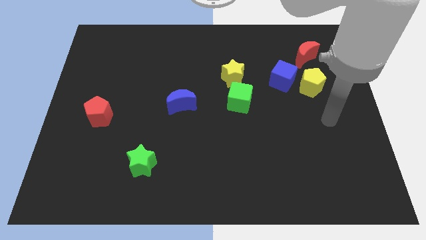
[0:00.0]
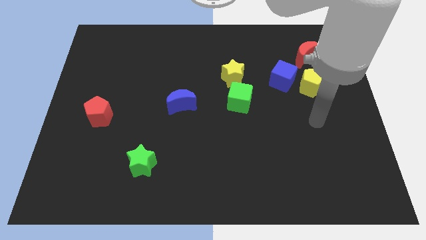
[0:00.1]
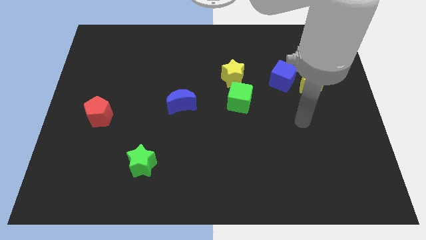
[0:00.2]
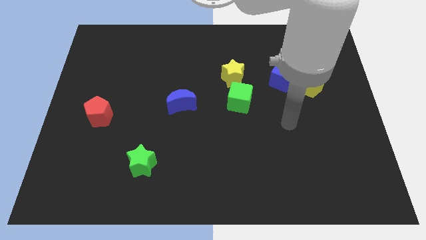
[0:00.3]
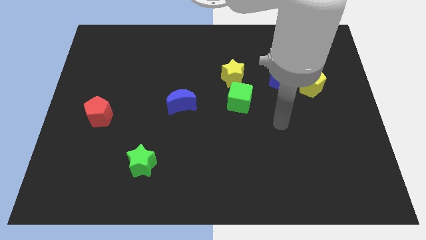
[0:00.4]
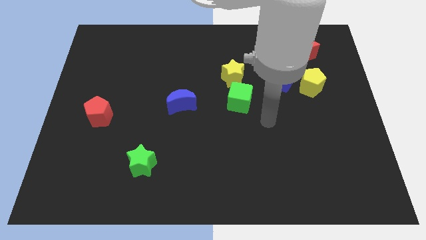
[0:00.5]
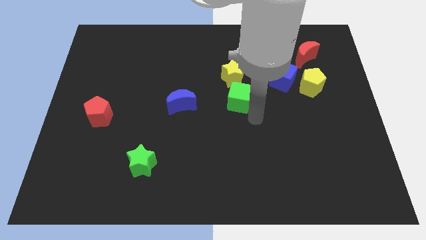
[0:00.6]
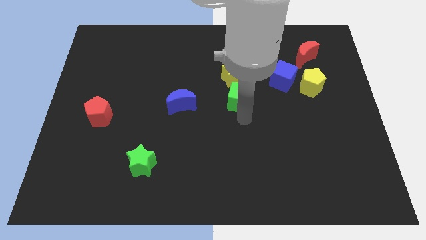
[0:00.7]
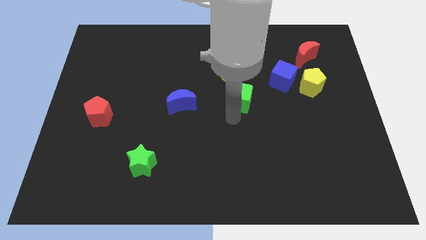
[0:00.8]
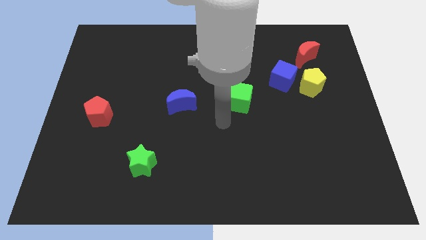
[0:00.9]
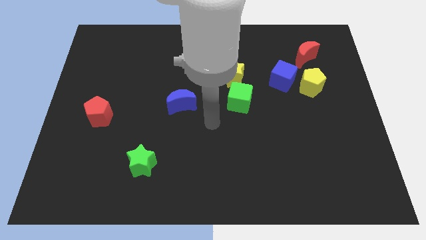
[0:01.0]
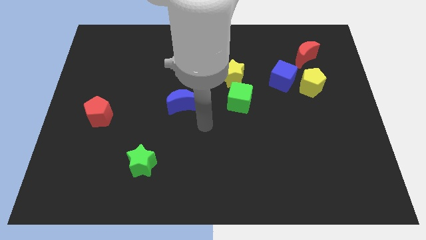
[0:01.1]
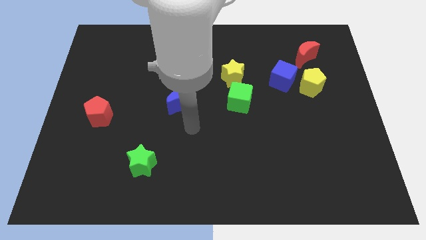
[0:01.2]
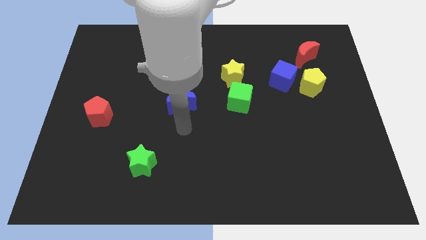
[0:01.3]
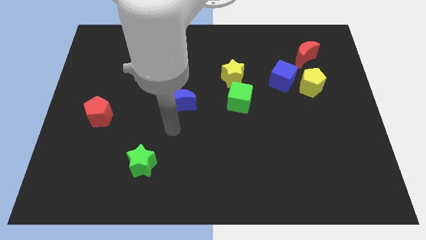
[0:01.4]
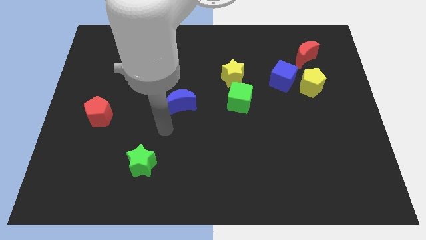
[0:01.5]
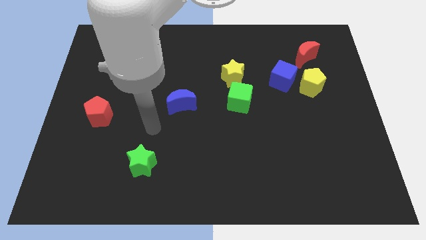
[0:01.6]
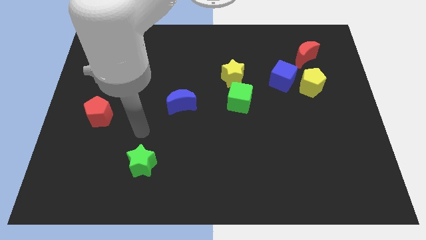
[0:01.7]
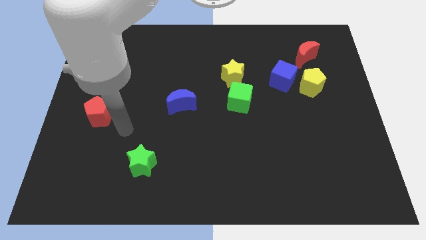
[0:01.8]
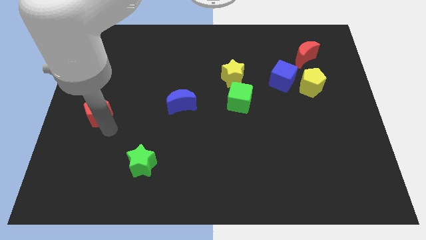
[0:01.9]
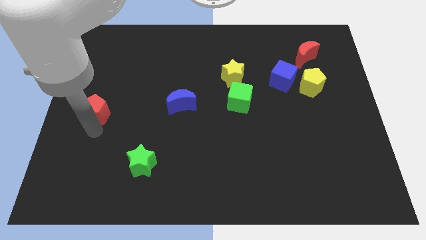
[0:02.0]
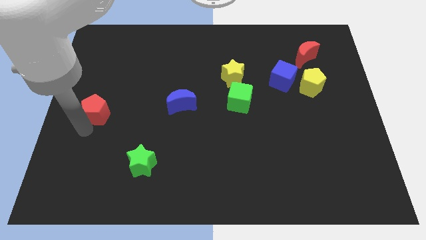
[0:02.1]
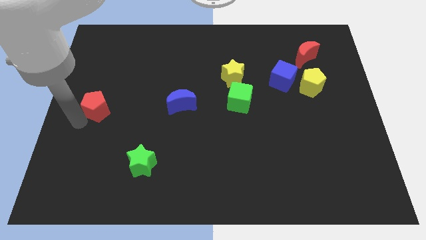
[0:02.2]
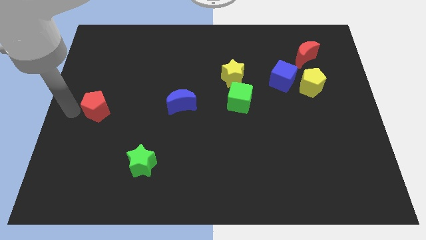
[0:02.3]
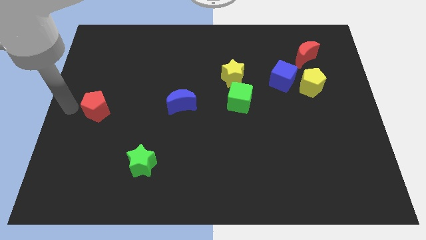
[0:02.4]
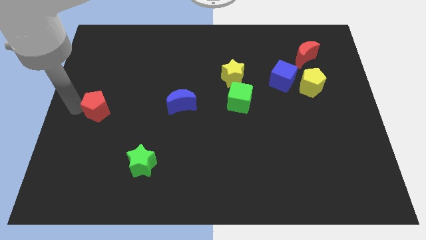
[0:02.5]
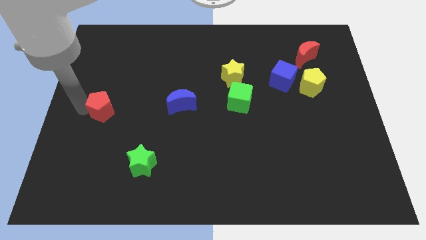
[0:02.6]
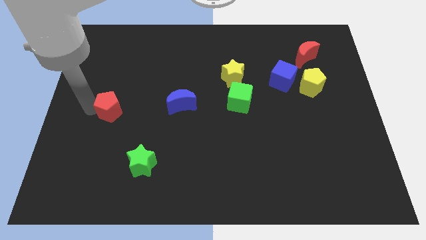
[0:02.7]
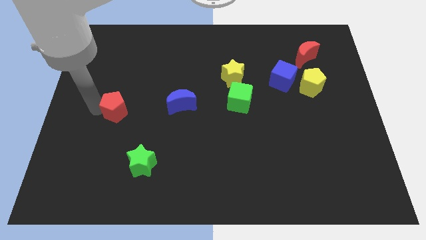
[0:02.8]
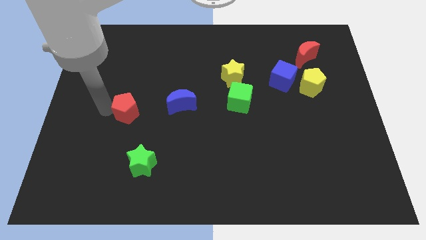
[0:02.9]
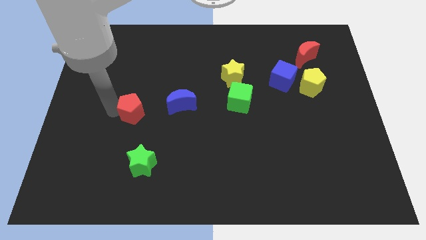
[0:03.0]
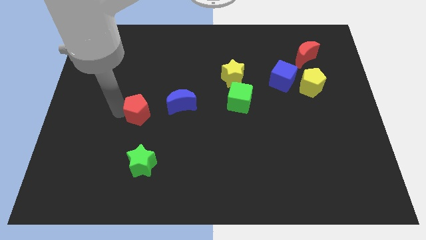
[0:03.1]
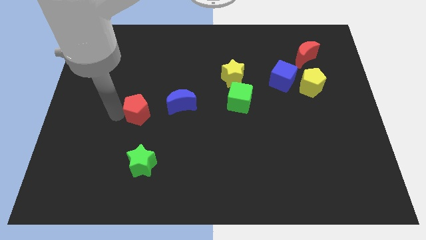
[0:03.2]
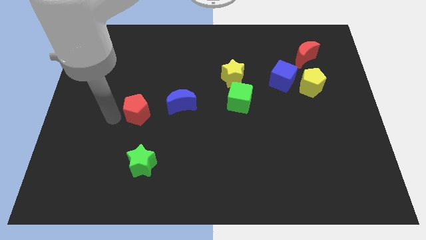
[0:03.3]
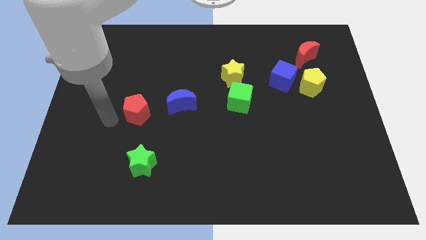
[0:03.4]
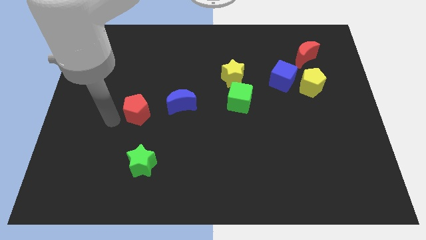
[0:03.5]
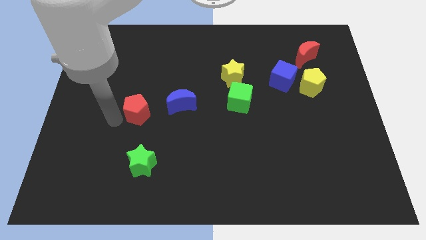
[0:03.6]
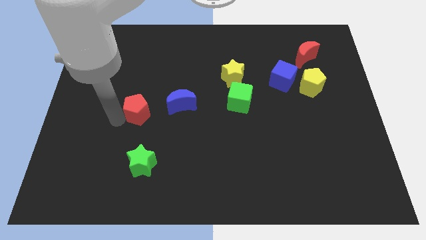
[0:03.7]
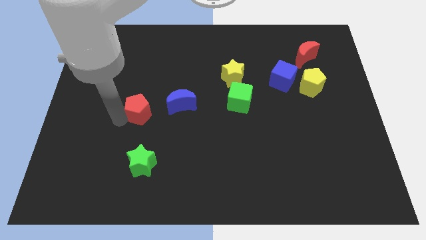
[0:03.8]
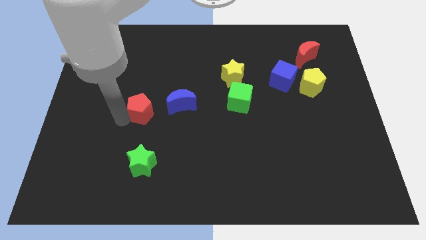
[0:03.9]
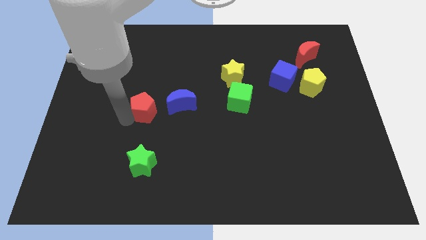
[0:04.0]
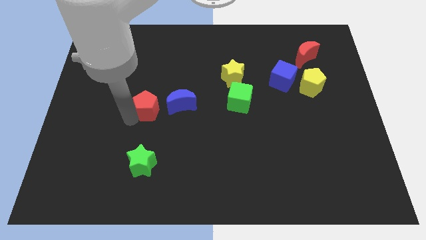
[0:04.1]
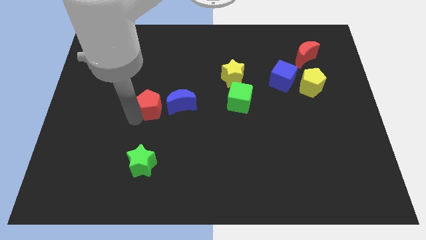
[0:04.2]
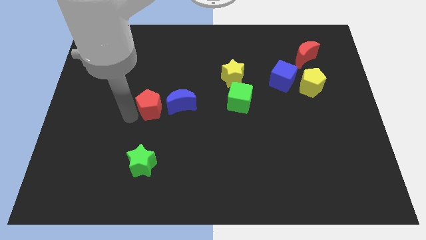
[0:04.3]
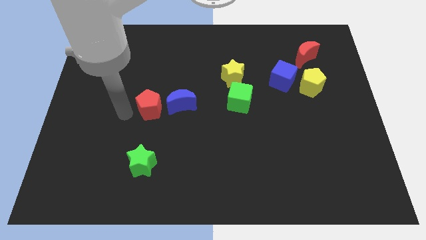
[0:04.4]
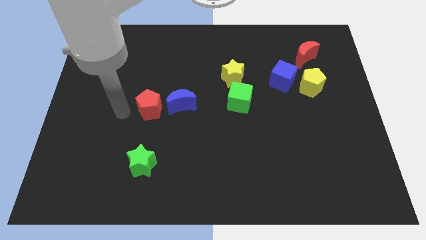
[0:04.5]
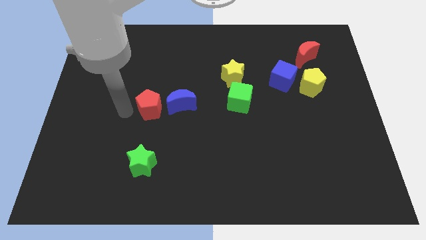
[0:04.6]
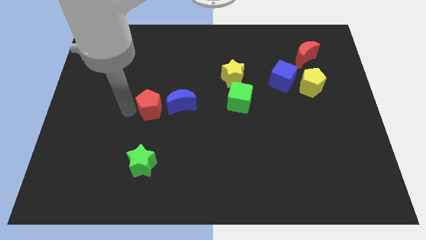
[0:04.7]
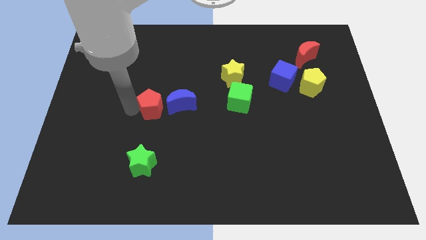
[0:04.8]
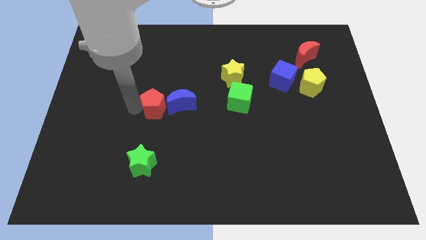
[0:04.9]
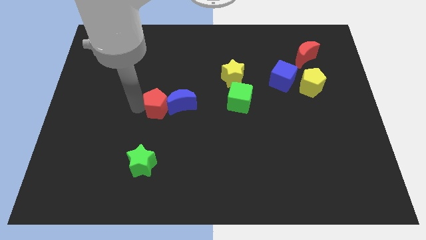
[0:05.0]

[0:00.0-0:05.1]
slide the red pentagon to the blue moon

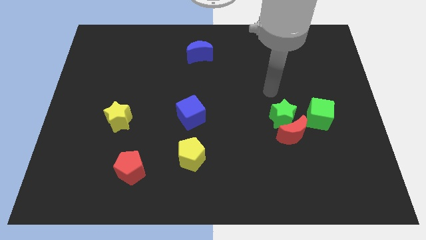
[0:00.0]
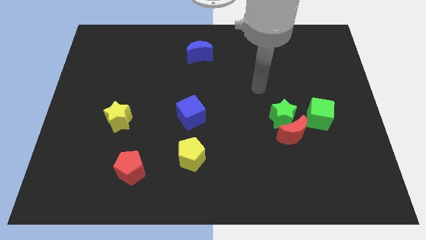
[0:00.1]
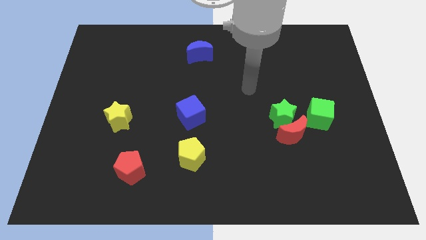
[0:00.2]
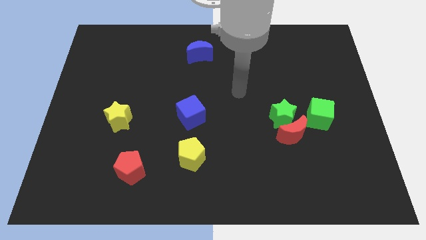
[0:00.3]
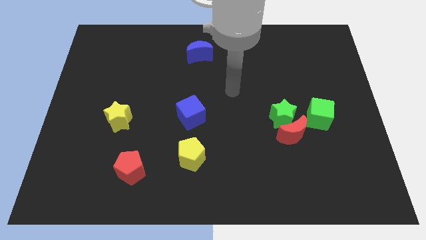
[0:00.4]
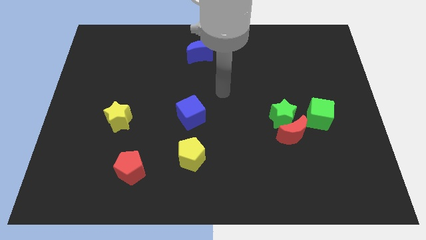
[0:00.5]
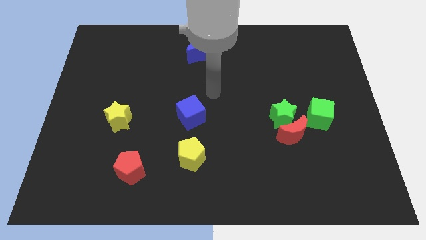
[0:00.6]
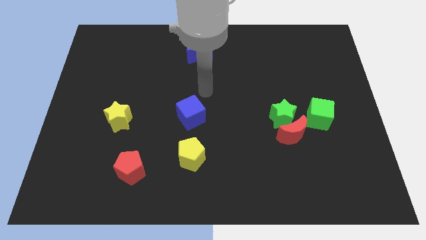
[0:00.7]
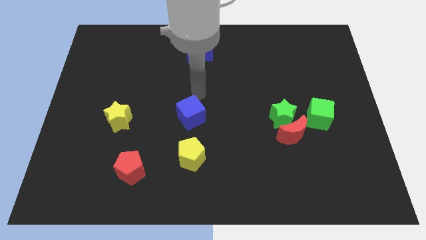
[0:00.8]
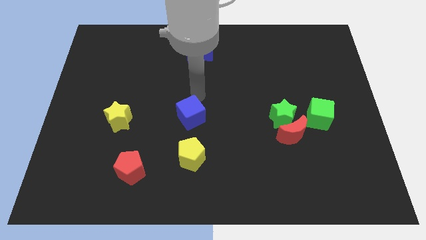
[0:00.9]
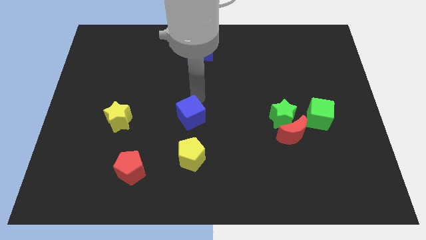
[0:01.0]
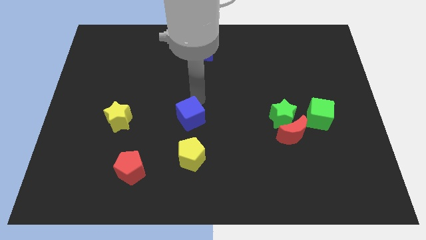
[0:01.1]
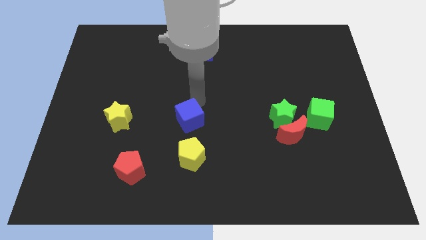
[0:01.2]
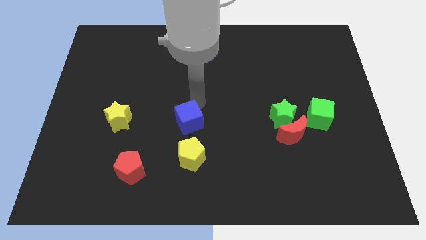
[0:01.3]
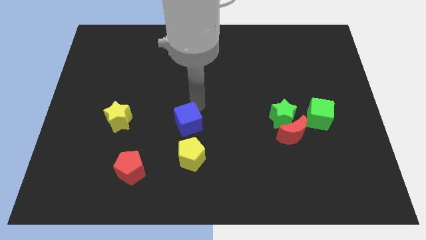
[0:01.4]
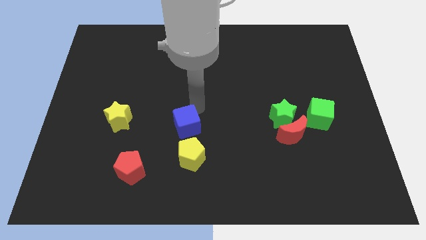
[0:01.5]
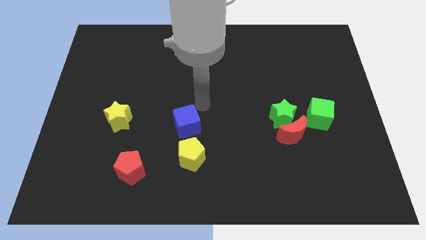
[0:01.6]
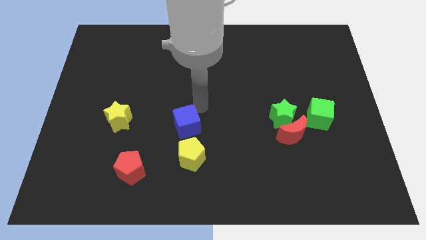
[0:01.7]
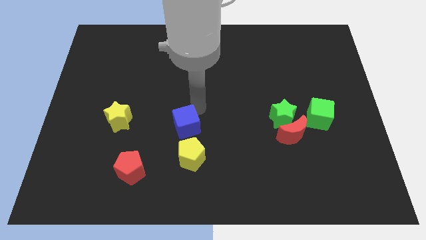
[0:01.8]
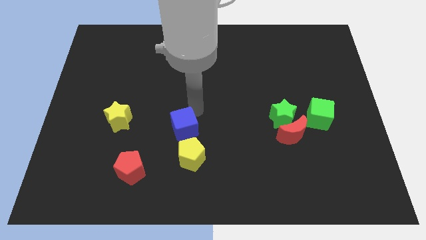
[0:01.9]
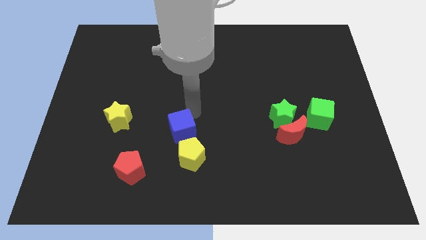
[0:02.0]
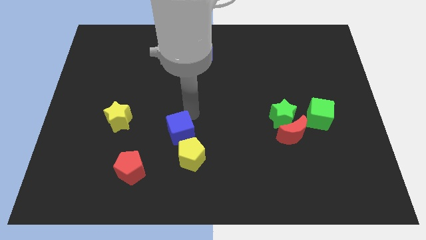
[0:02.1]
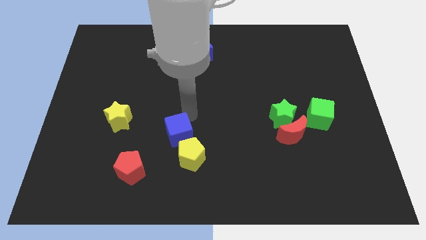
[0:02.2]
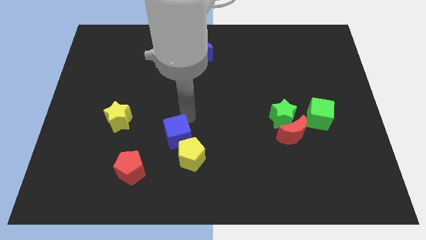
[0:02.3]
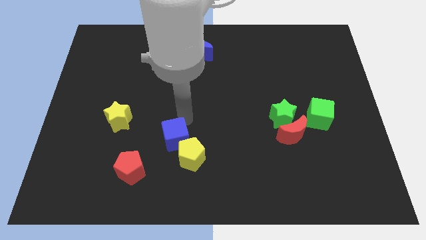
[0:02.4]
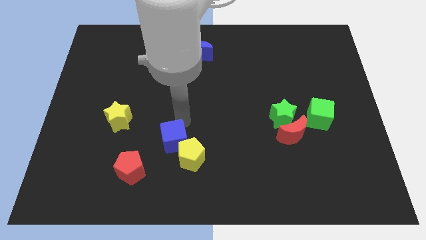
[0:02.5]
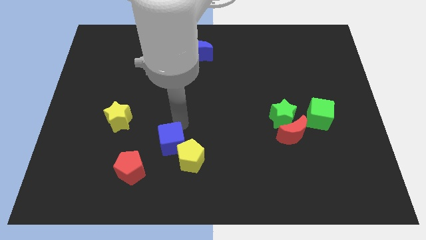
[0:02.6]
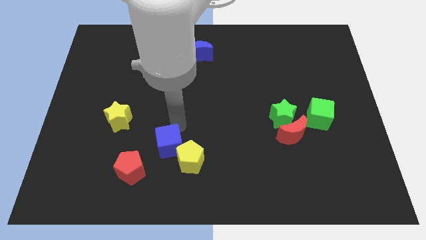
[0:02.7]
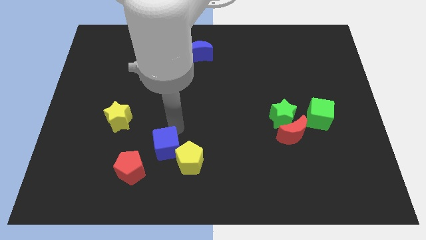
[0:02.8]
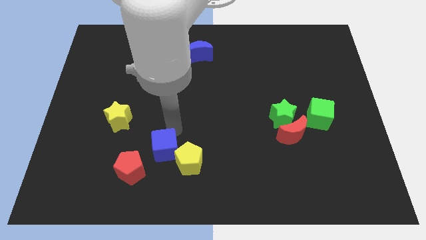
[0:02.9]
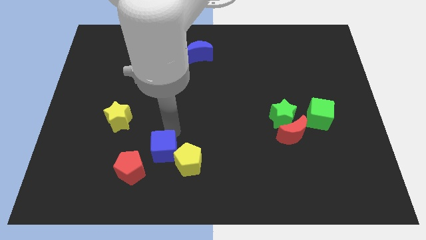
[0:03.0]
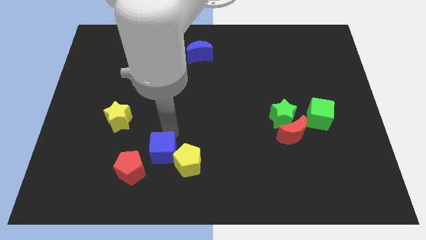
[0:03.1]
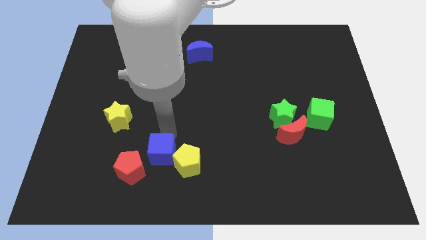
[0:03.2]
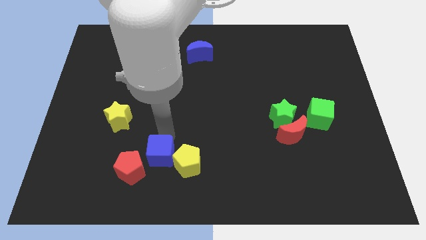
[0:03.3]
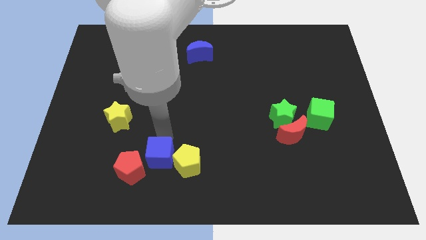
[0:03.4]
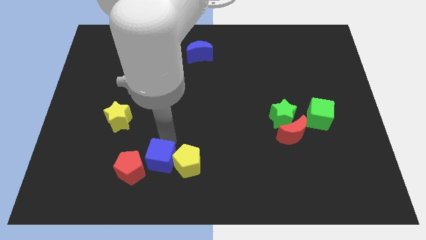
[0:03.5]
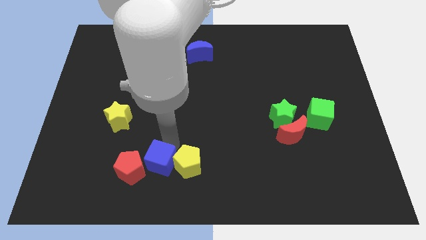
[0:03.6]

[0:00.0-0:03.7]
slide the blue cube towards the red pentagon
